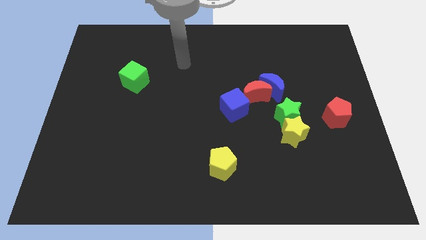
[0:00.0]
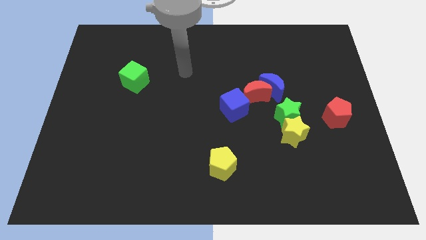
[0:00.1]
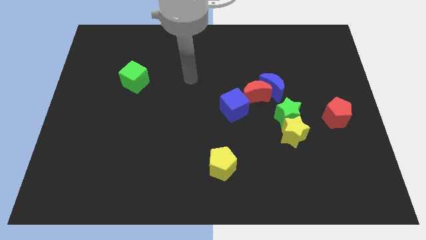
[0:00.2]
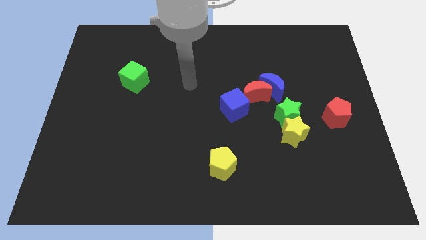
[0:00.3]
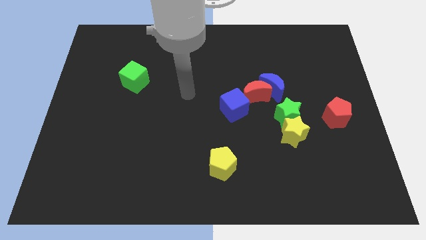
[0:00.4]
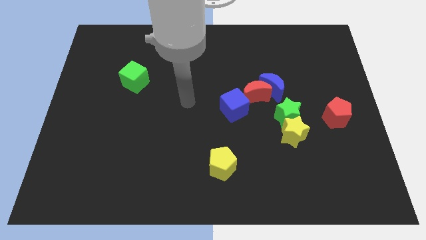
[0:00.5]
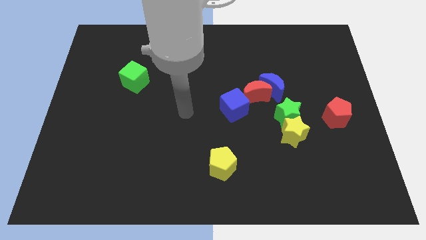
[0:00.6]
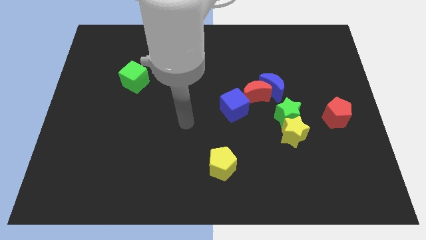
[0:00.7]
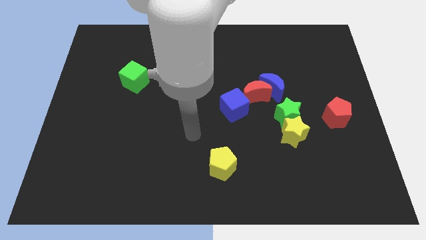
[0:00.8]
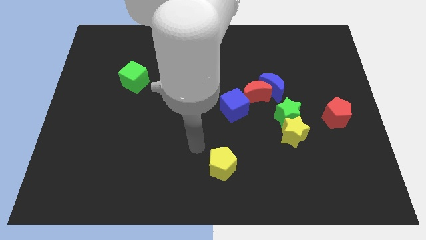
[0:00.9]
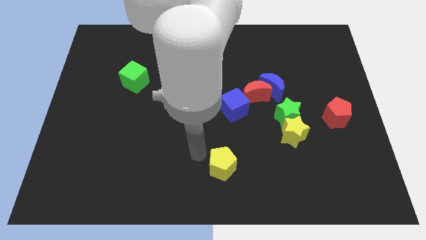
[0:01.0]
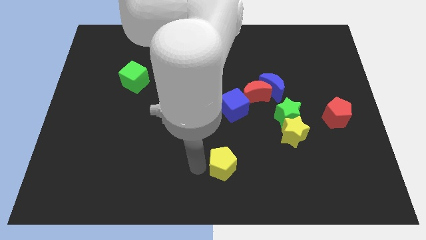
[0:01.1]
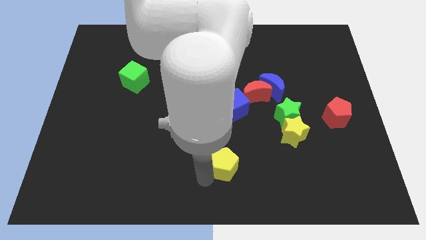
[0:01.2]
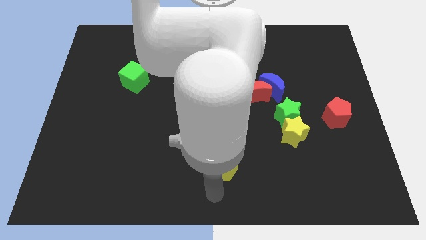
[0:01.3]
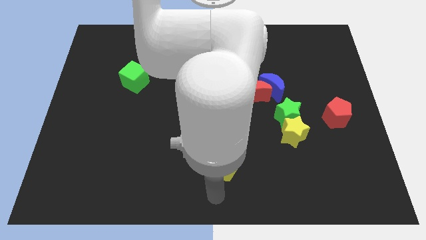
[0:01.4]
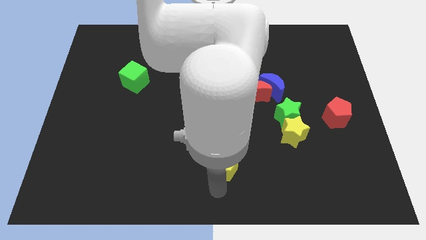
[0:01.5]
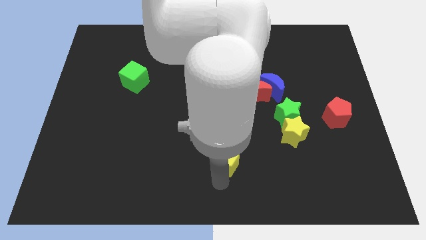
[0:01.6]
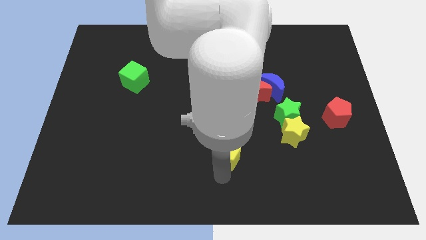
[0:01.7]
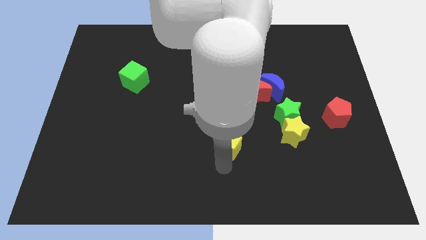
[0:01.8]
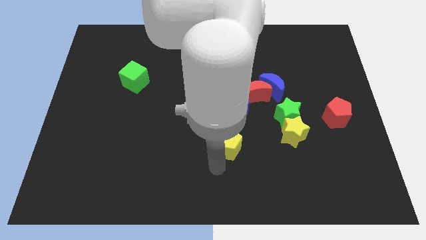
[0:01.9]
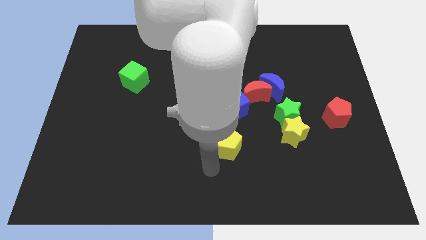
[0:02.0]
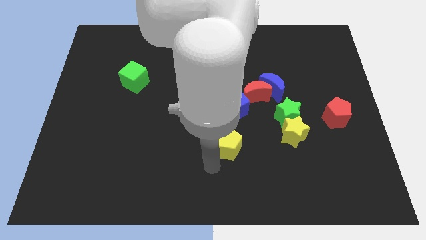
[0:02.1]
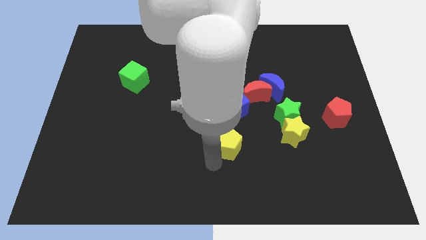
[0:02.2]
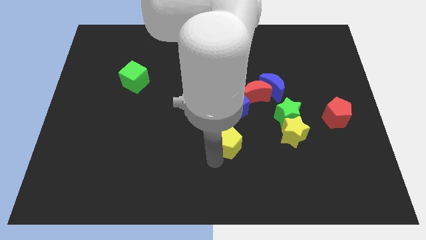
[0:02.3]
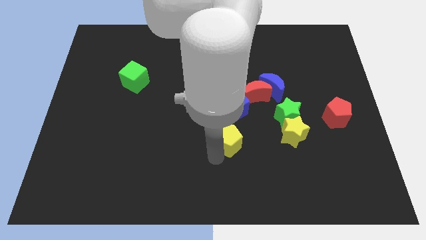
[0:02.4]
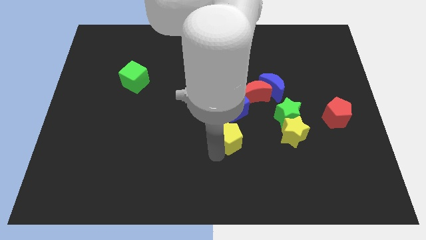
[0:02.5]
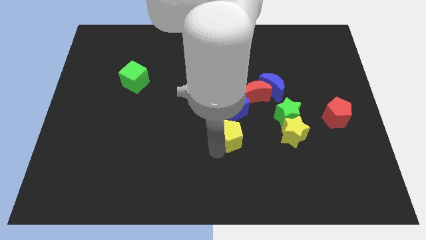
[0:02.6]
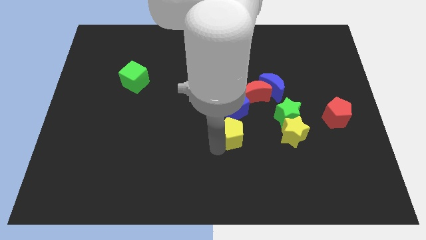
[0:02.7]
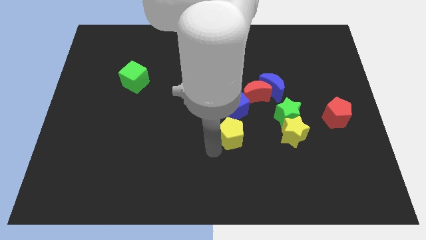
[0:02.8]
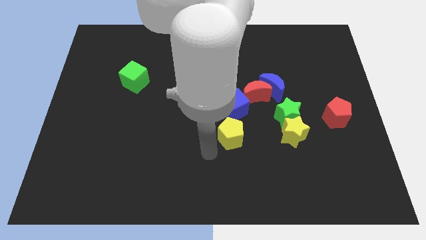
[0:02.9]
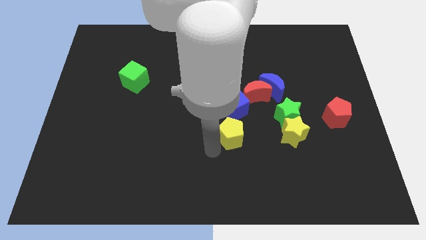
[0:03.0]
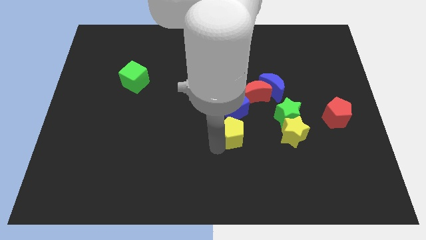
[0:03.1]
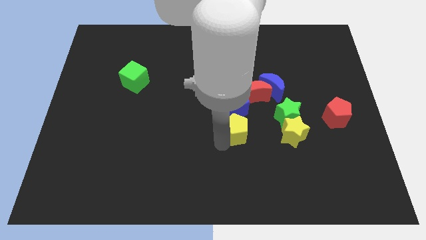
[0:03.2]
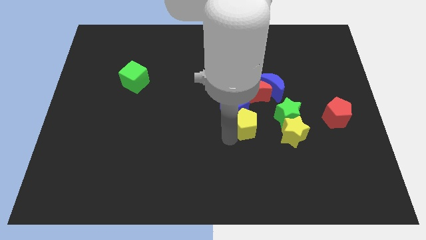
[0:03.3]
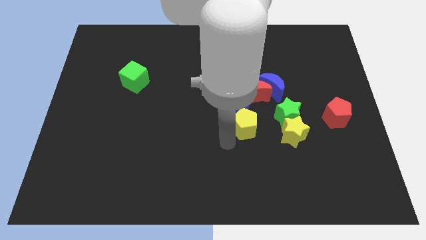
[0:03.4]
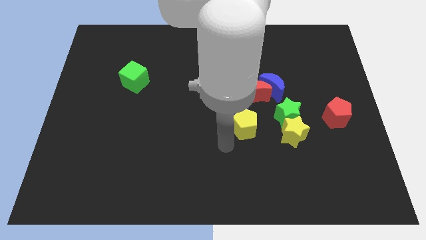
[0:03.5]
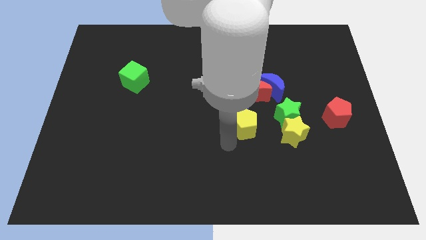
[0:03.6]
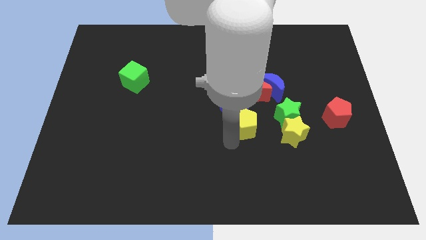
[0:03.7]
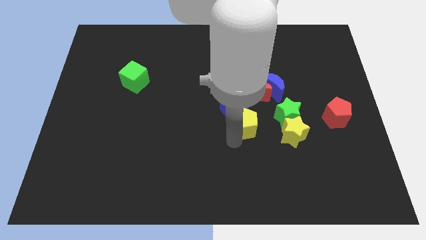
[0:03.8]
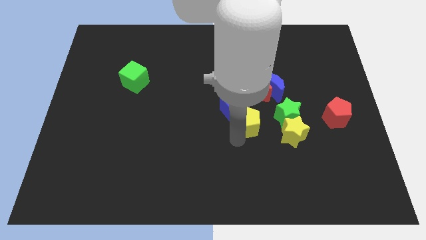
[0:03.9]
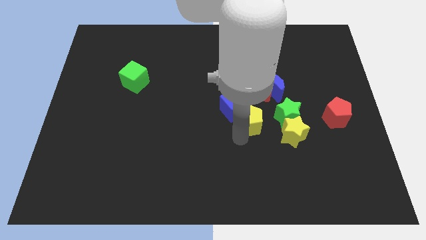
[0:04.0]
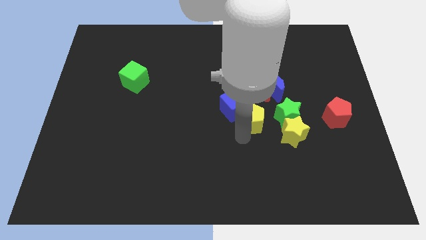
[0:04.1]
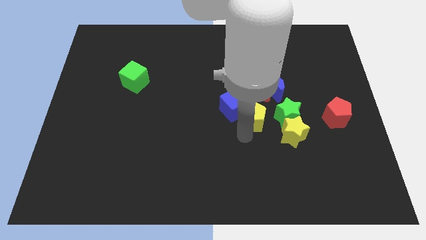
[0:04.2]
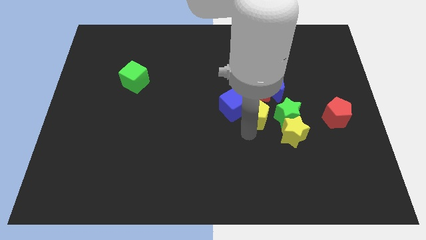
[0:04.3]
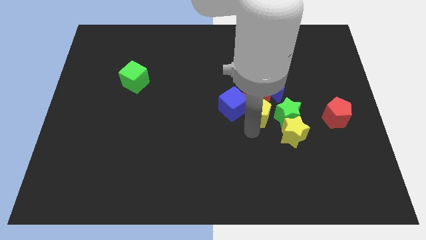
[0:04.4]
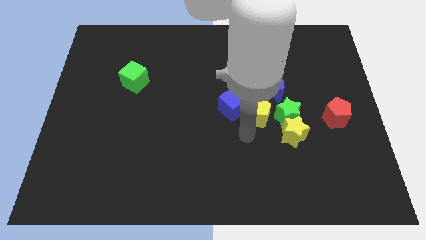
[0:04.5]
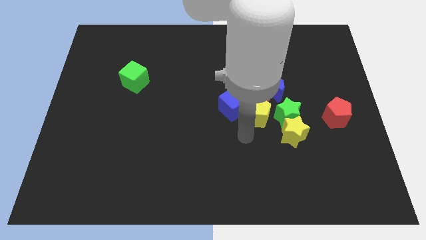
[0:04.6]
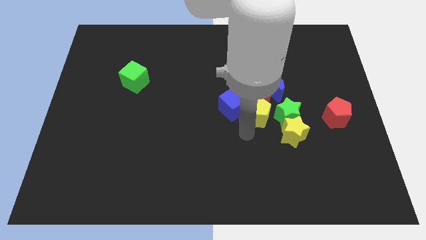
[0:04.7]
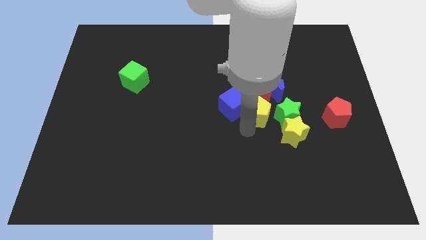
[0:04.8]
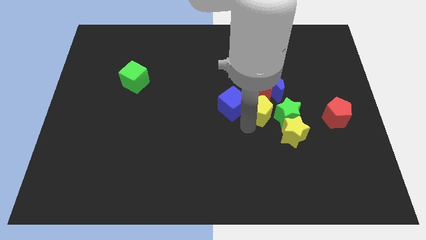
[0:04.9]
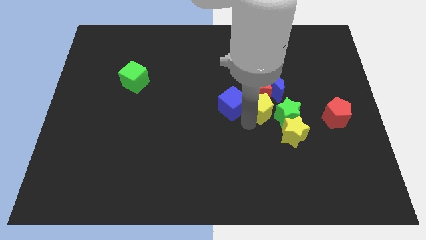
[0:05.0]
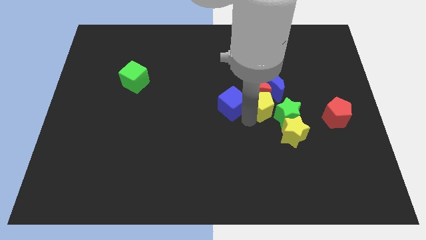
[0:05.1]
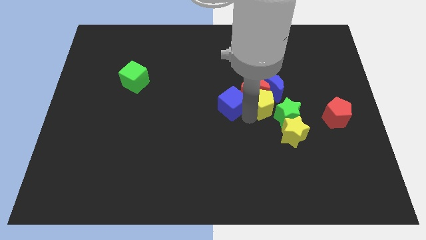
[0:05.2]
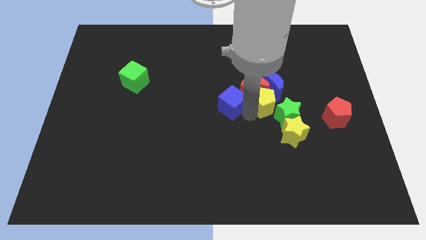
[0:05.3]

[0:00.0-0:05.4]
put the yellow pentagon towards the blue moon

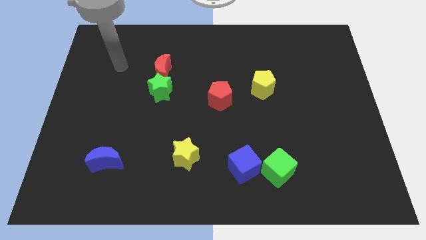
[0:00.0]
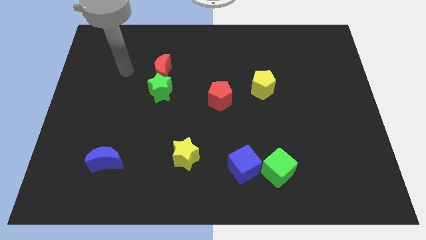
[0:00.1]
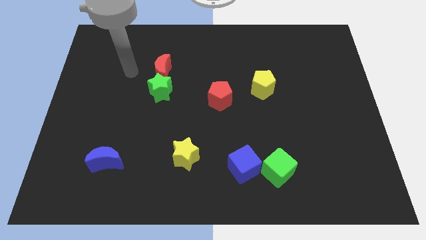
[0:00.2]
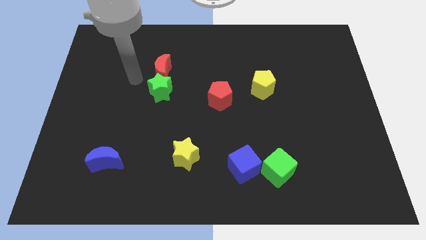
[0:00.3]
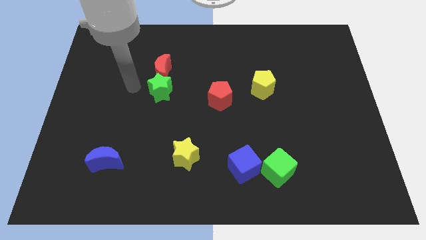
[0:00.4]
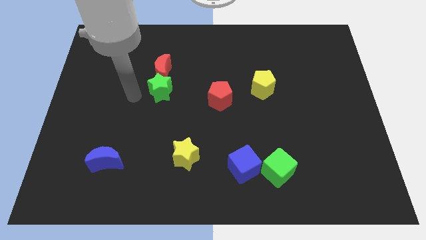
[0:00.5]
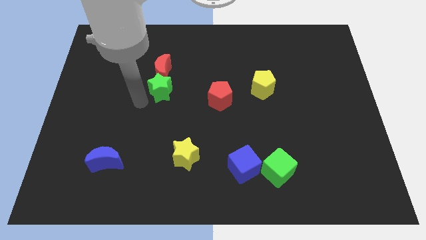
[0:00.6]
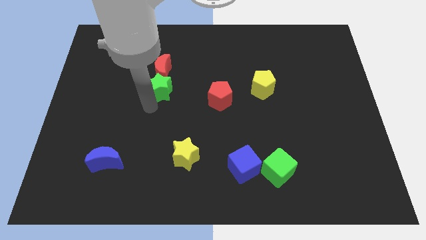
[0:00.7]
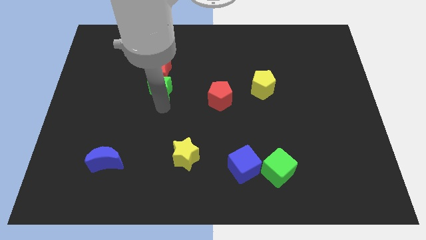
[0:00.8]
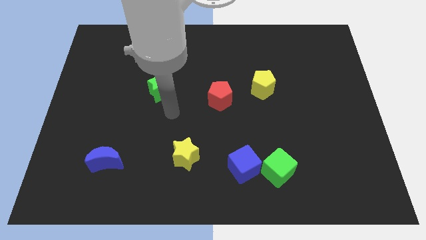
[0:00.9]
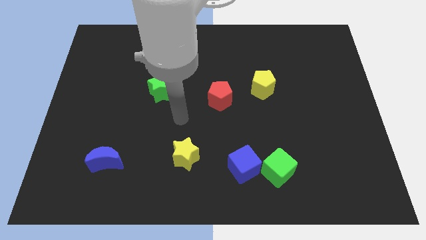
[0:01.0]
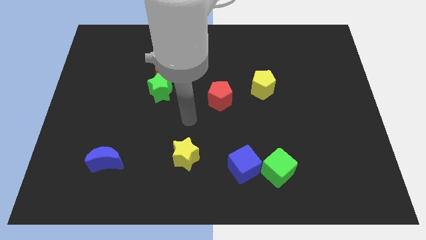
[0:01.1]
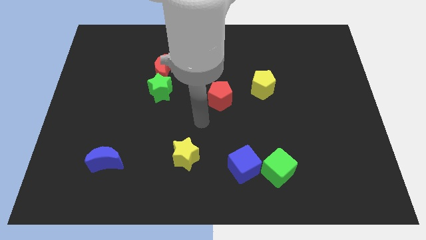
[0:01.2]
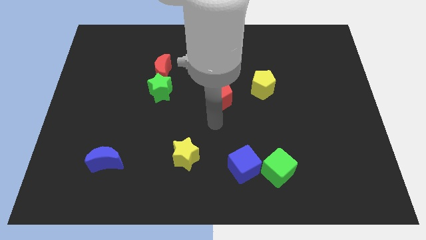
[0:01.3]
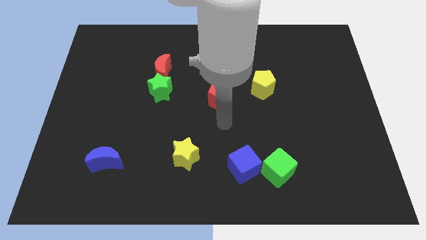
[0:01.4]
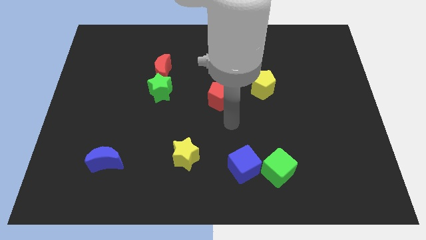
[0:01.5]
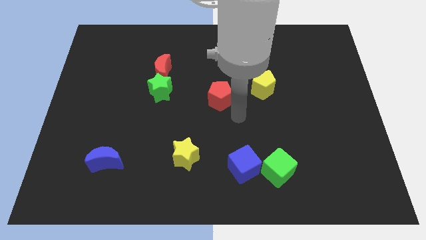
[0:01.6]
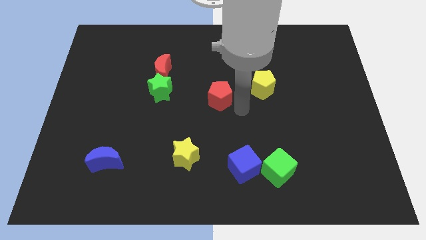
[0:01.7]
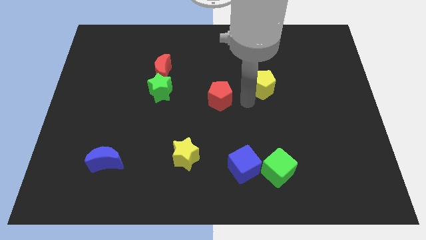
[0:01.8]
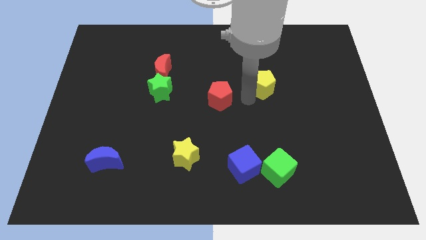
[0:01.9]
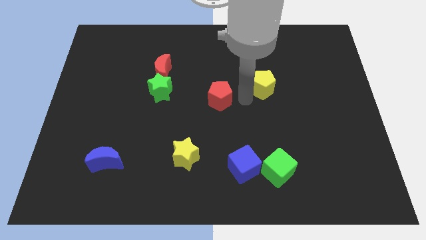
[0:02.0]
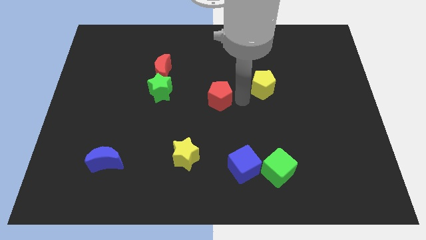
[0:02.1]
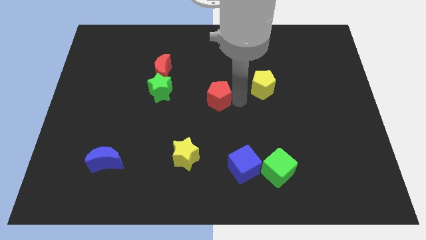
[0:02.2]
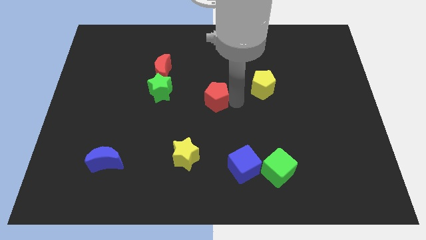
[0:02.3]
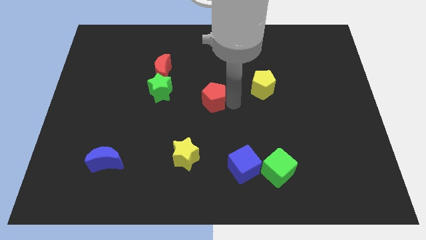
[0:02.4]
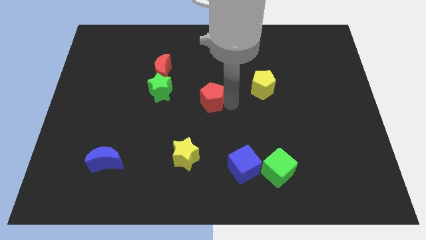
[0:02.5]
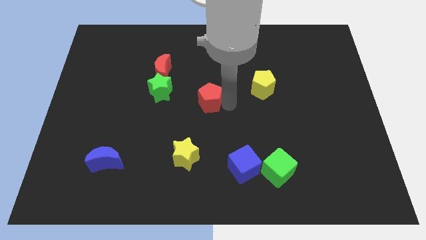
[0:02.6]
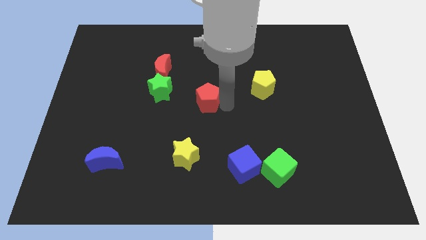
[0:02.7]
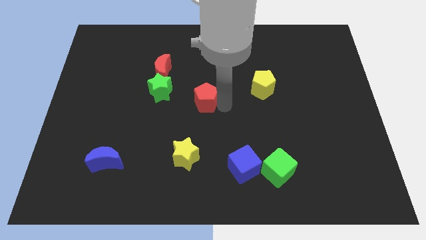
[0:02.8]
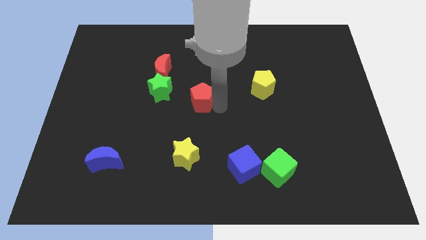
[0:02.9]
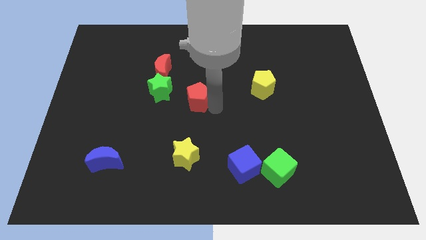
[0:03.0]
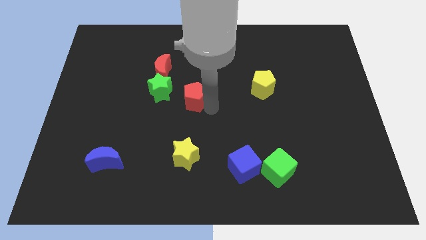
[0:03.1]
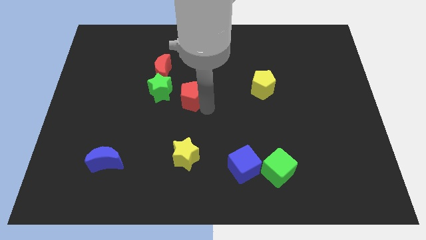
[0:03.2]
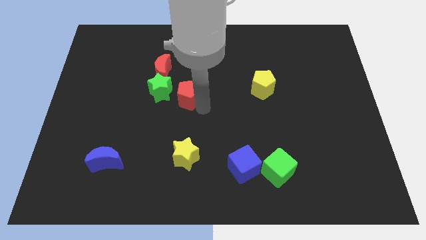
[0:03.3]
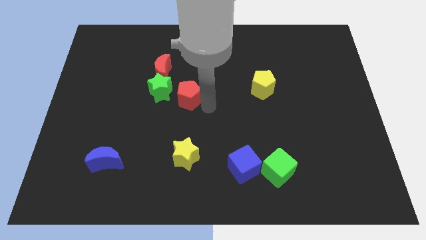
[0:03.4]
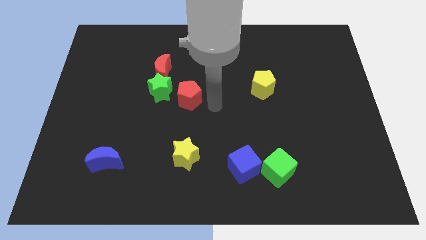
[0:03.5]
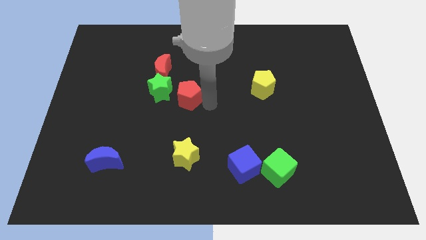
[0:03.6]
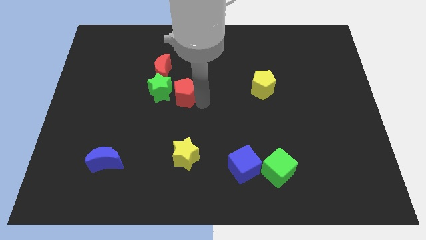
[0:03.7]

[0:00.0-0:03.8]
put the red pentagon towards the green star
